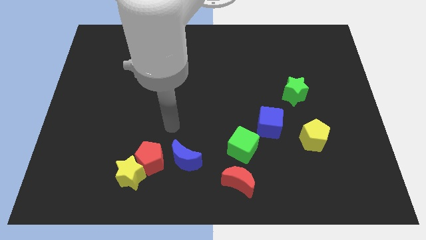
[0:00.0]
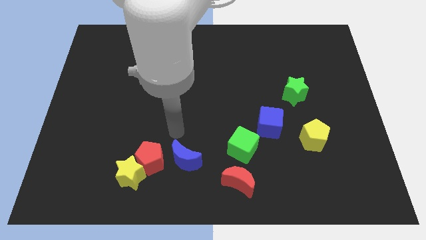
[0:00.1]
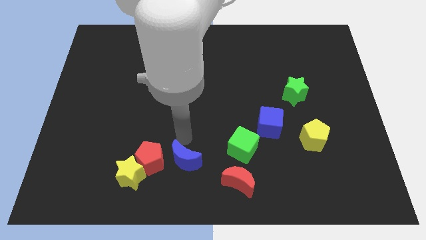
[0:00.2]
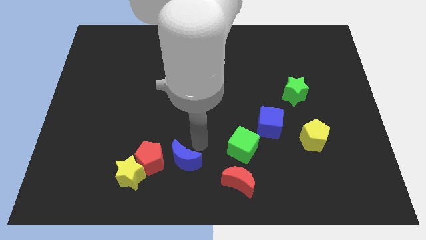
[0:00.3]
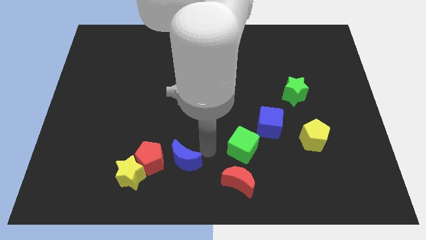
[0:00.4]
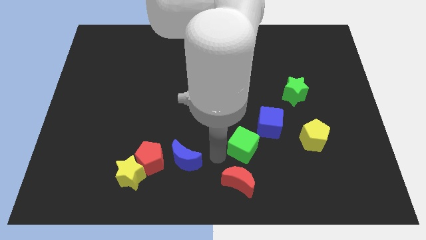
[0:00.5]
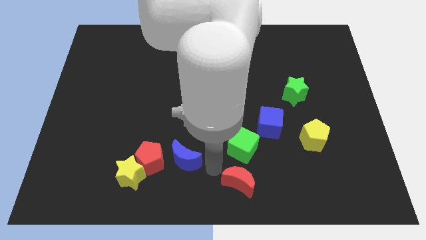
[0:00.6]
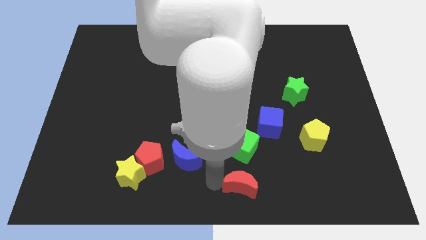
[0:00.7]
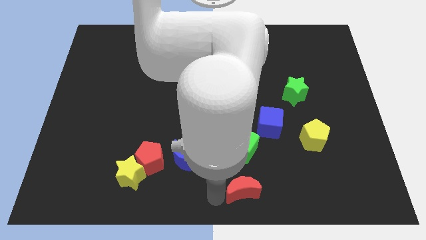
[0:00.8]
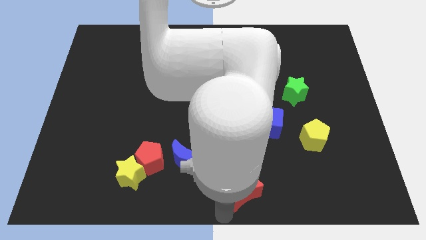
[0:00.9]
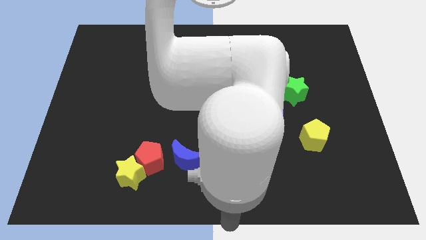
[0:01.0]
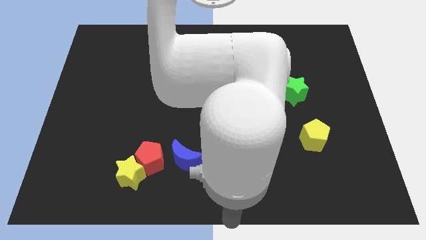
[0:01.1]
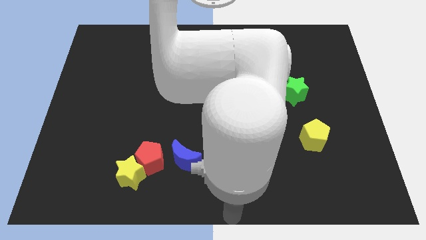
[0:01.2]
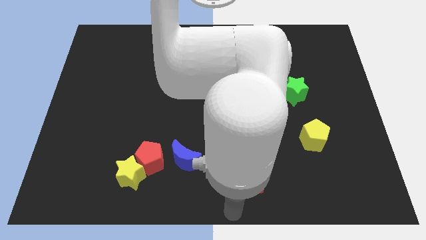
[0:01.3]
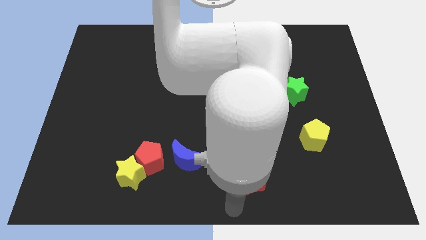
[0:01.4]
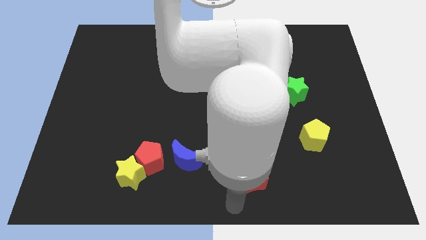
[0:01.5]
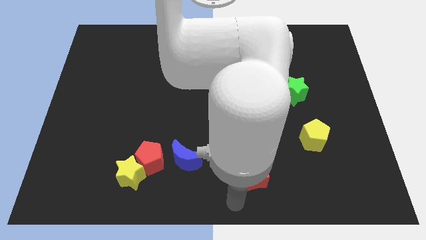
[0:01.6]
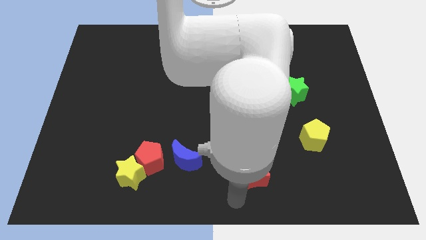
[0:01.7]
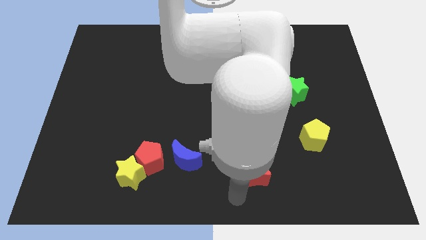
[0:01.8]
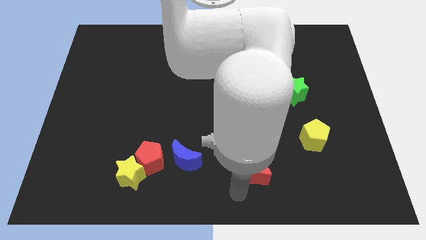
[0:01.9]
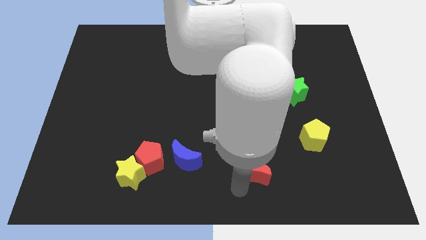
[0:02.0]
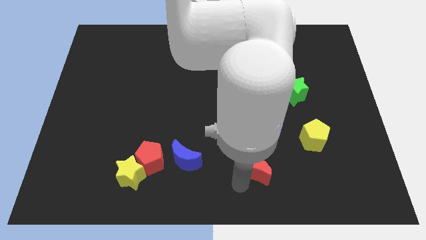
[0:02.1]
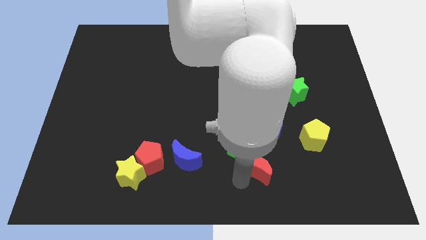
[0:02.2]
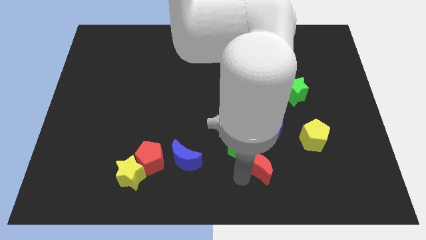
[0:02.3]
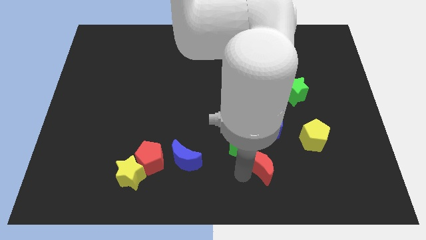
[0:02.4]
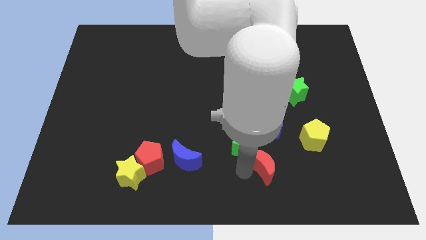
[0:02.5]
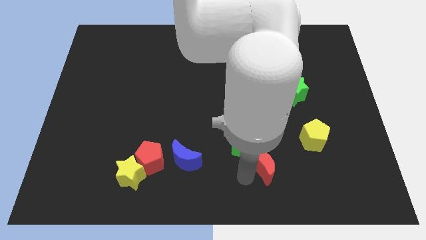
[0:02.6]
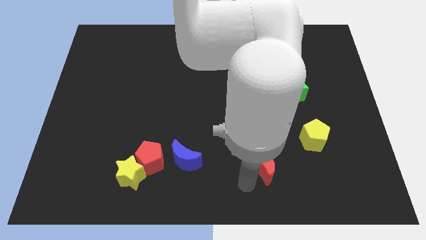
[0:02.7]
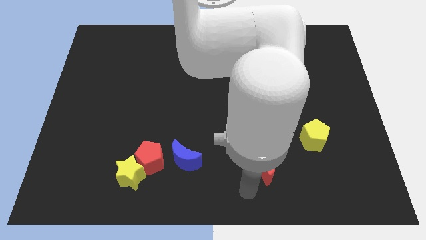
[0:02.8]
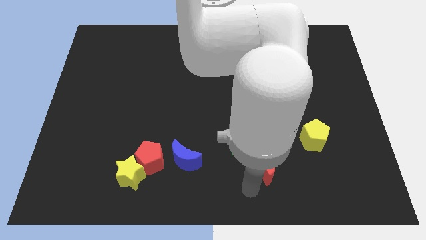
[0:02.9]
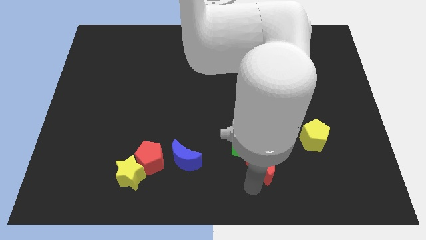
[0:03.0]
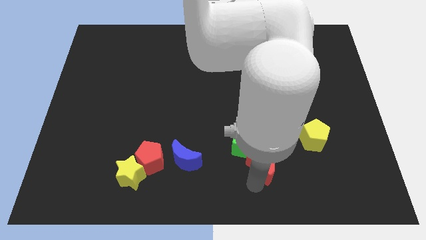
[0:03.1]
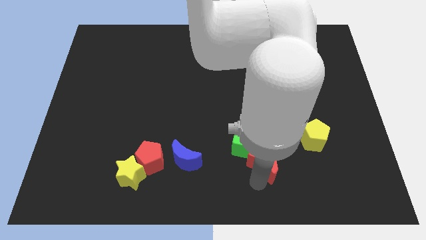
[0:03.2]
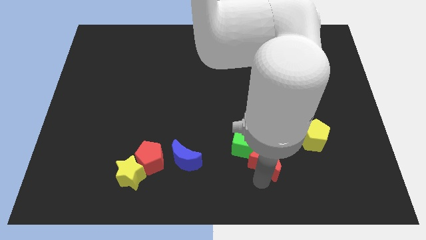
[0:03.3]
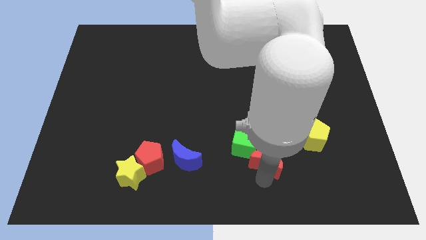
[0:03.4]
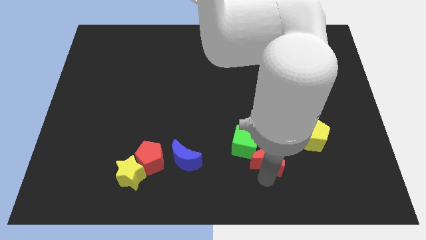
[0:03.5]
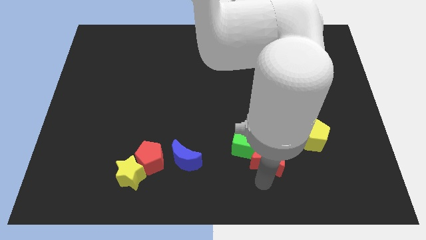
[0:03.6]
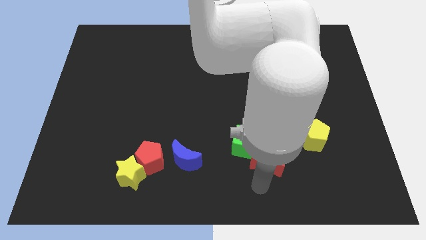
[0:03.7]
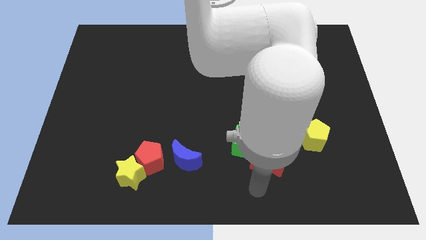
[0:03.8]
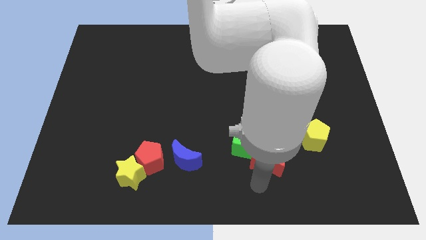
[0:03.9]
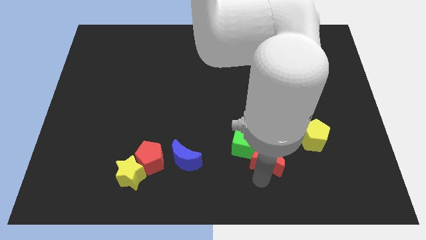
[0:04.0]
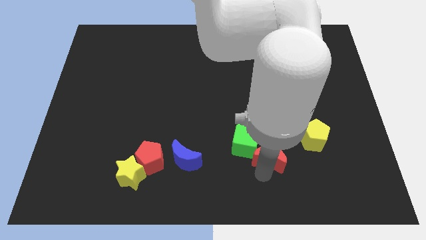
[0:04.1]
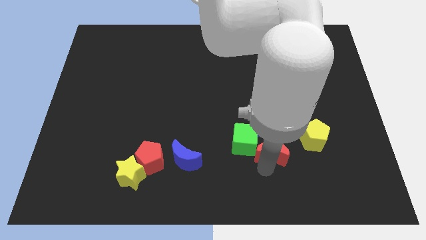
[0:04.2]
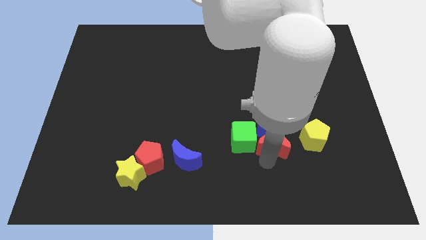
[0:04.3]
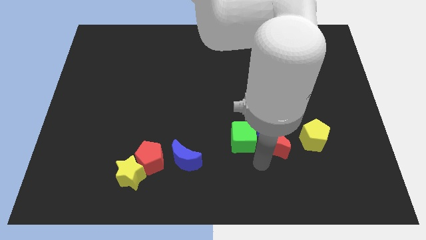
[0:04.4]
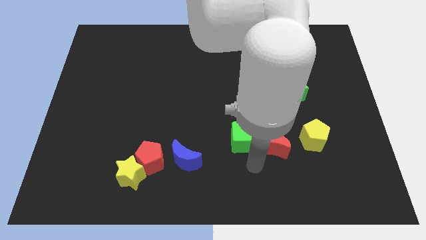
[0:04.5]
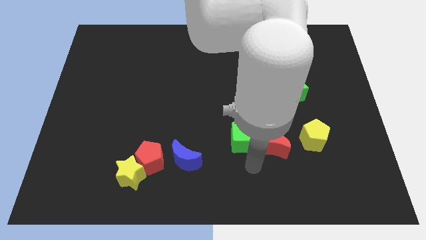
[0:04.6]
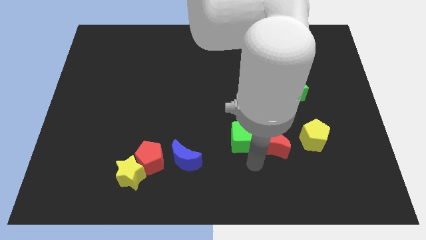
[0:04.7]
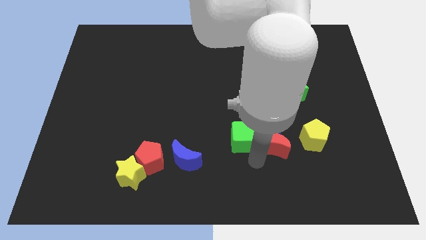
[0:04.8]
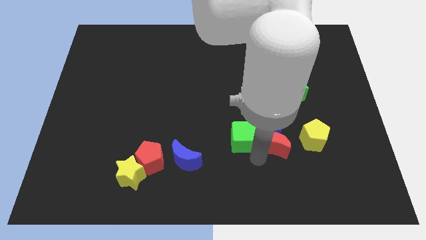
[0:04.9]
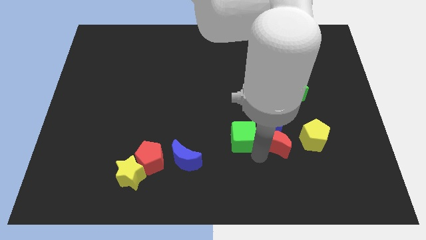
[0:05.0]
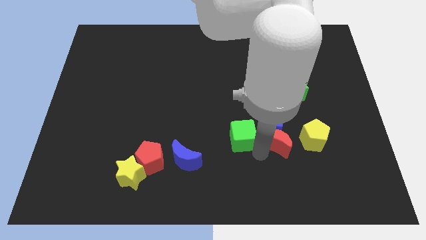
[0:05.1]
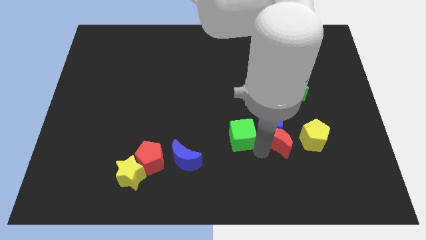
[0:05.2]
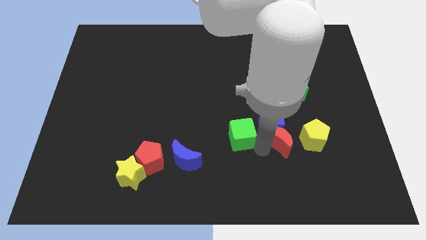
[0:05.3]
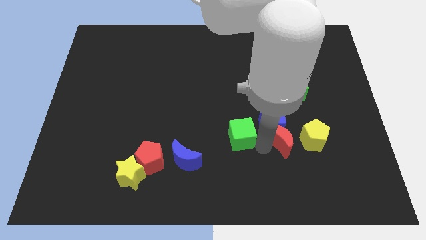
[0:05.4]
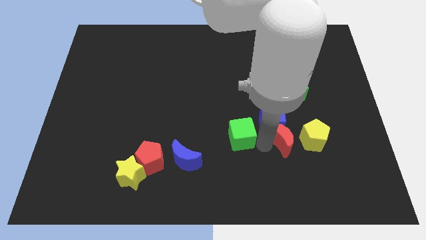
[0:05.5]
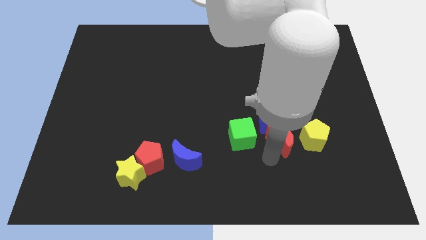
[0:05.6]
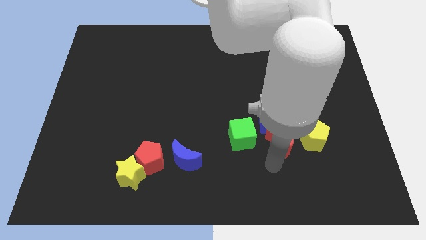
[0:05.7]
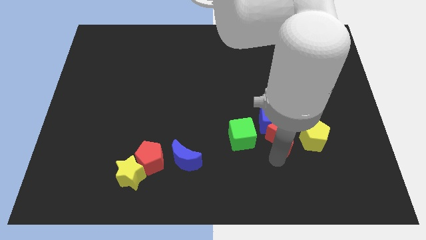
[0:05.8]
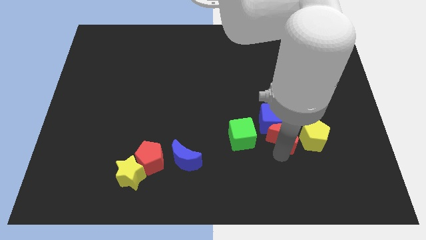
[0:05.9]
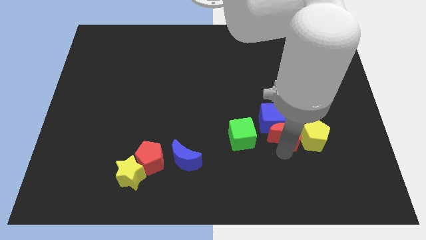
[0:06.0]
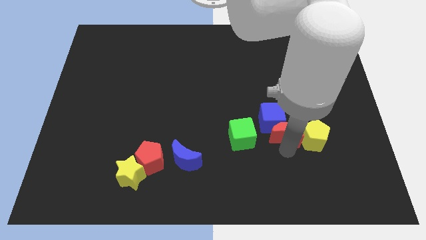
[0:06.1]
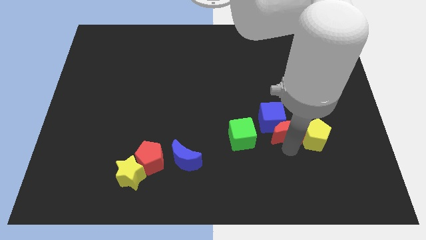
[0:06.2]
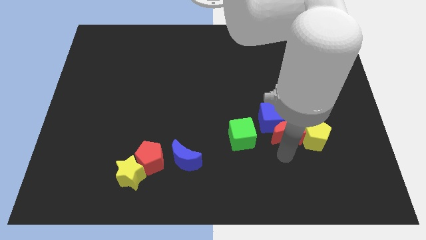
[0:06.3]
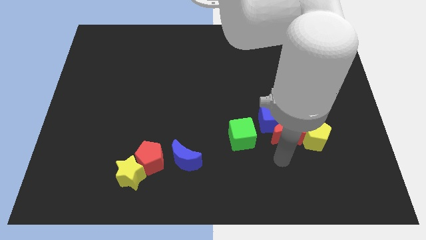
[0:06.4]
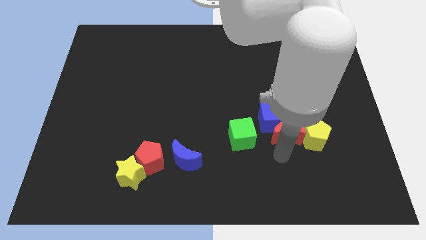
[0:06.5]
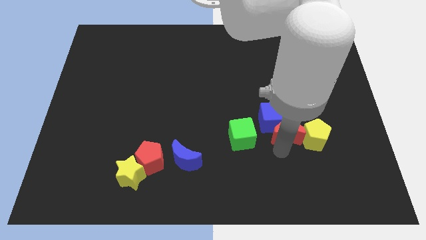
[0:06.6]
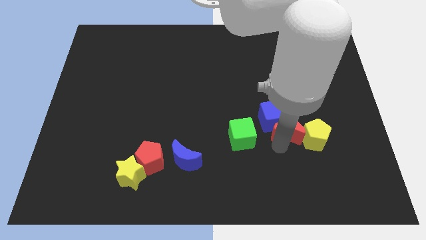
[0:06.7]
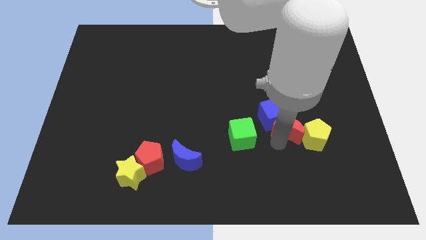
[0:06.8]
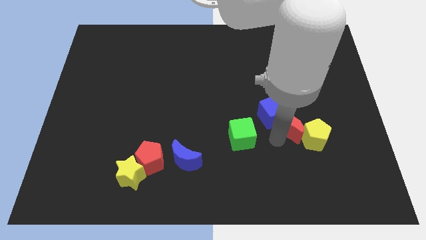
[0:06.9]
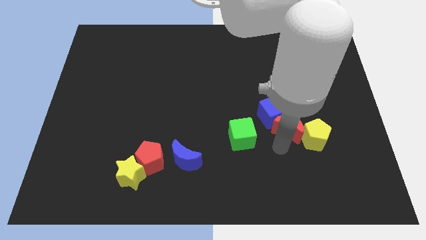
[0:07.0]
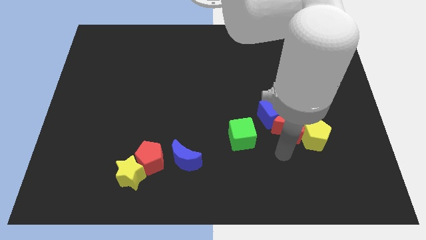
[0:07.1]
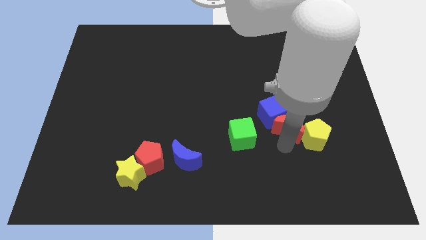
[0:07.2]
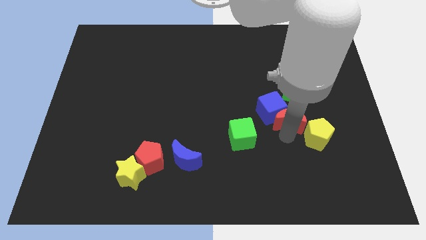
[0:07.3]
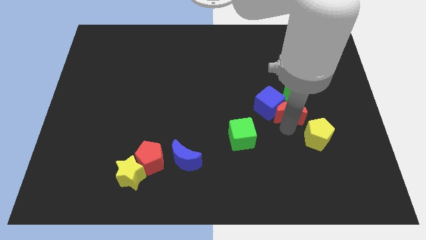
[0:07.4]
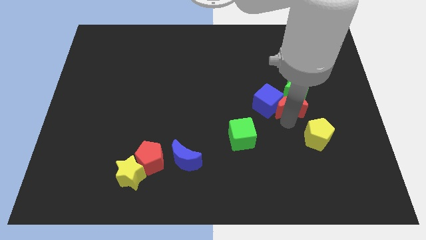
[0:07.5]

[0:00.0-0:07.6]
push the red moon next to the green star

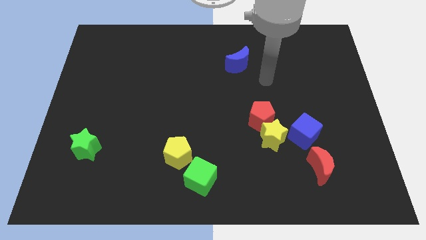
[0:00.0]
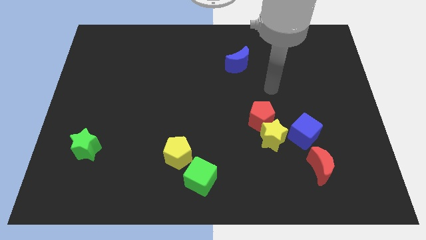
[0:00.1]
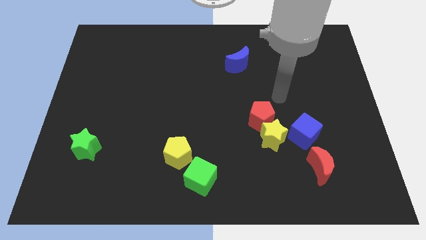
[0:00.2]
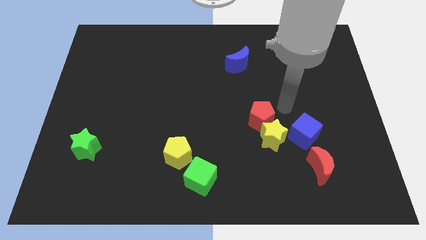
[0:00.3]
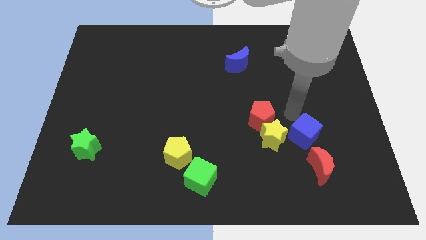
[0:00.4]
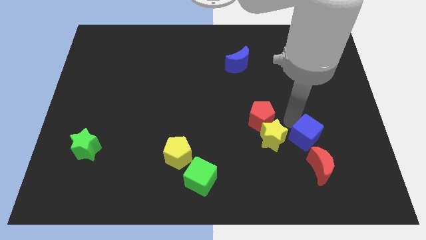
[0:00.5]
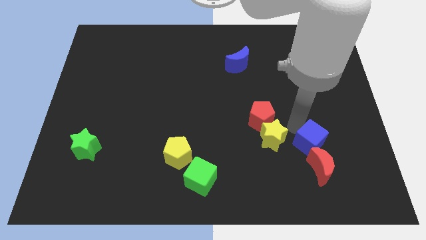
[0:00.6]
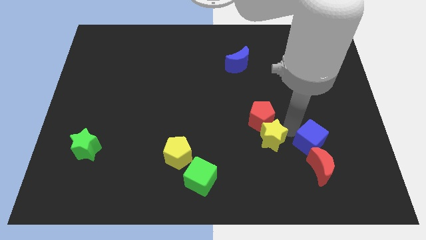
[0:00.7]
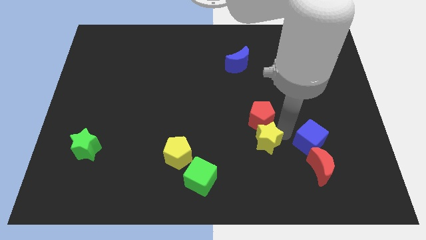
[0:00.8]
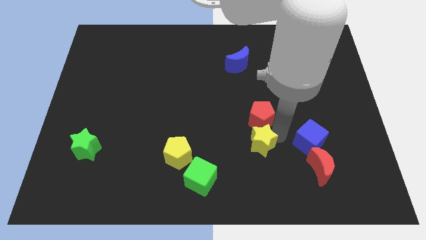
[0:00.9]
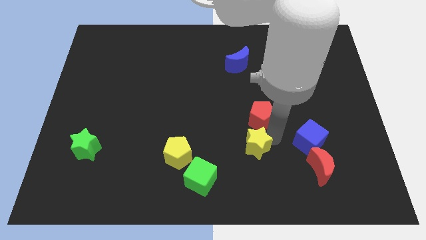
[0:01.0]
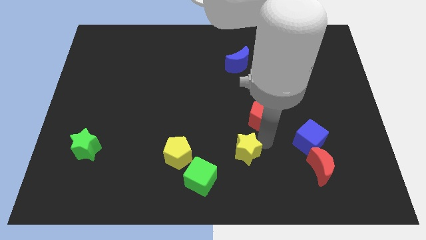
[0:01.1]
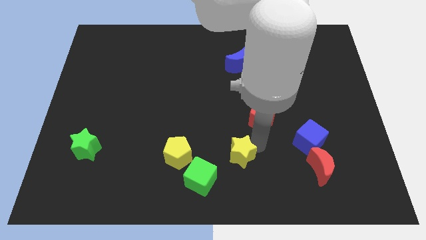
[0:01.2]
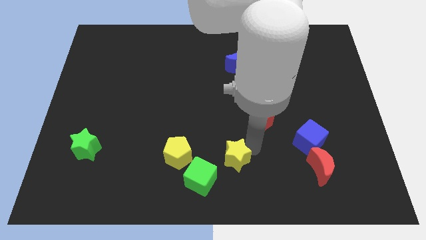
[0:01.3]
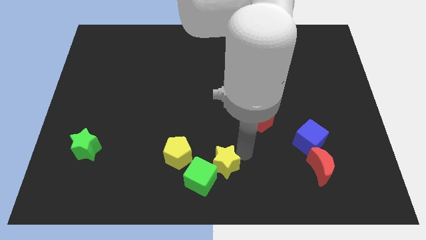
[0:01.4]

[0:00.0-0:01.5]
move the yellow star towards the green cube
